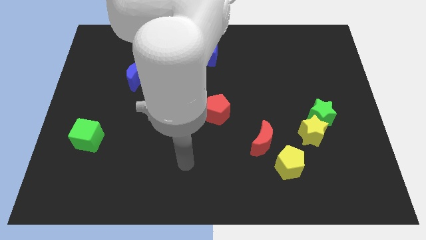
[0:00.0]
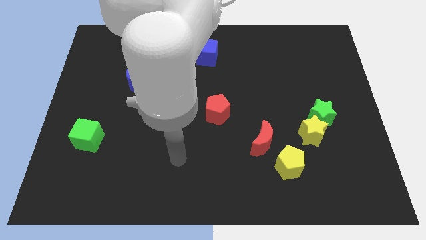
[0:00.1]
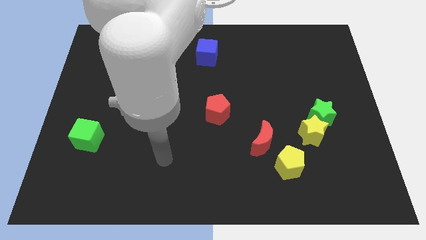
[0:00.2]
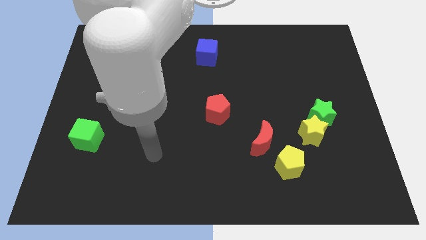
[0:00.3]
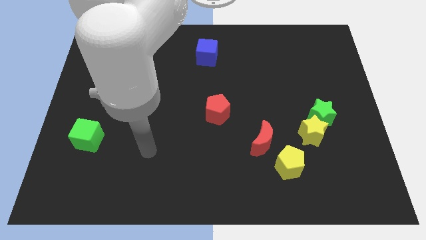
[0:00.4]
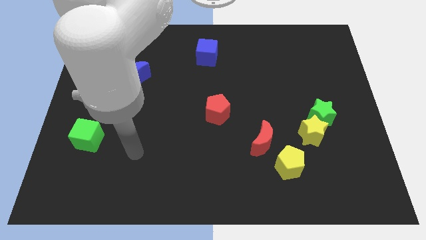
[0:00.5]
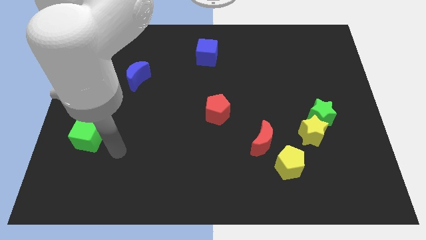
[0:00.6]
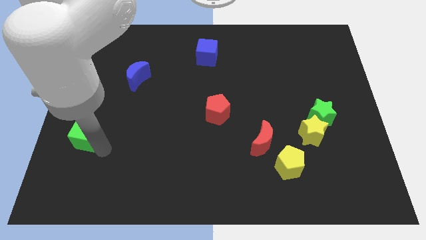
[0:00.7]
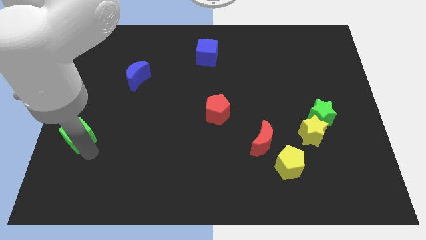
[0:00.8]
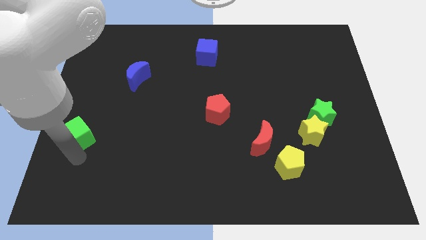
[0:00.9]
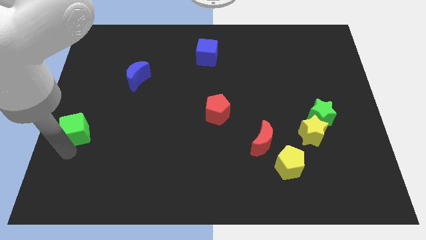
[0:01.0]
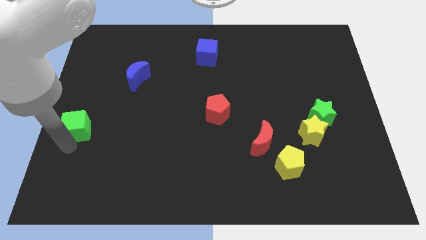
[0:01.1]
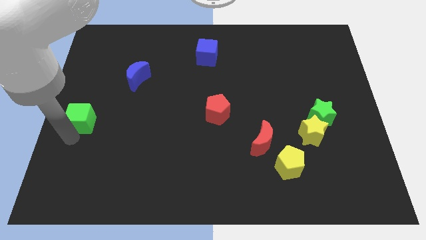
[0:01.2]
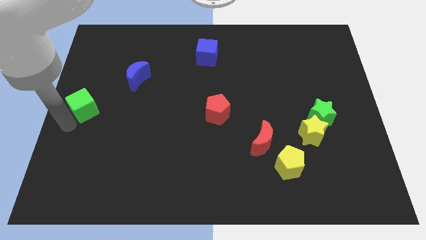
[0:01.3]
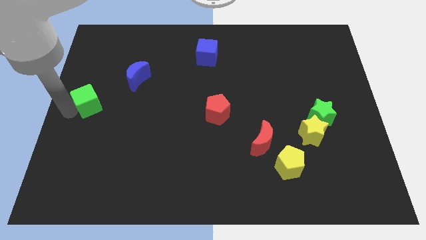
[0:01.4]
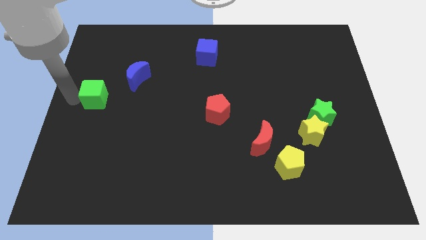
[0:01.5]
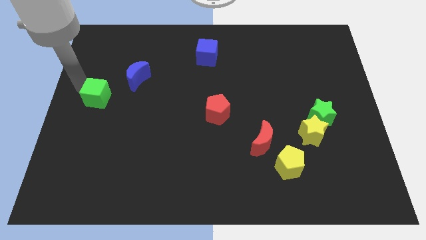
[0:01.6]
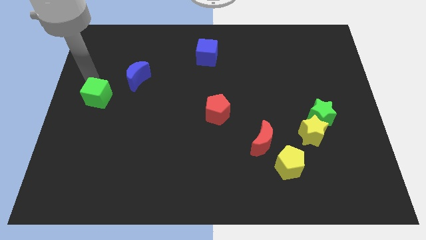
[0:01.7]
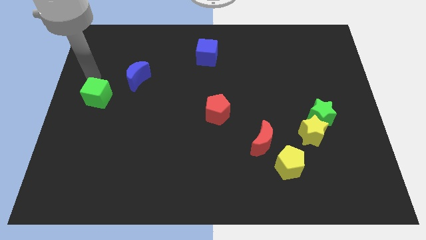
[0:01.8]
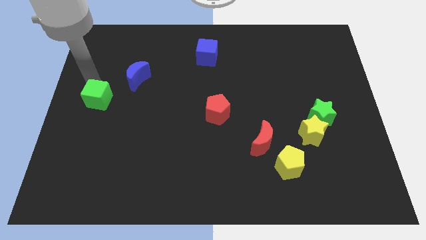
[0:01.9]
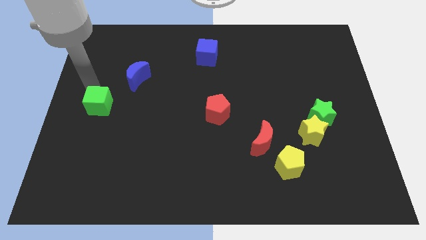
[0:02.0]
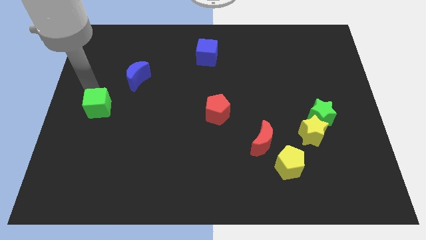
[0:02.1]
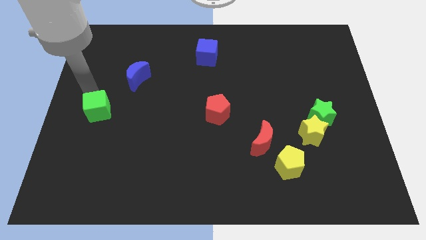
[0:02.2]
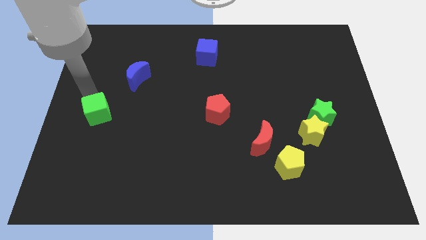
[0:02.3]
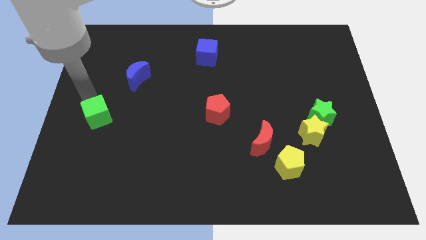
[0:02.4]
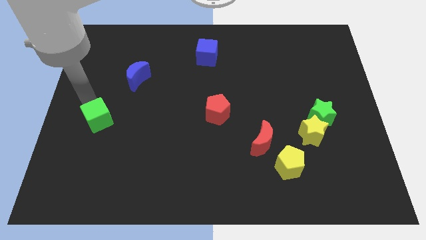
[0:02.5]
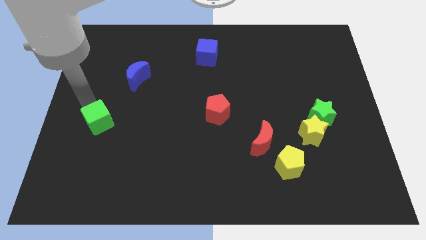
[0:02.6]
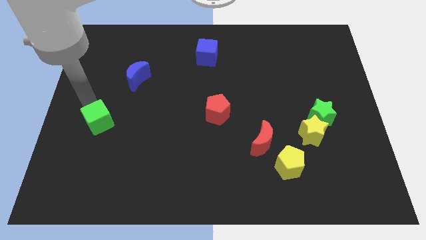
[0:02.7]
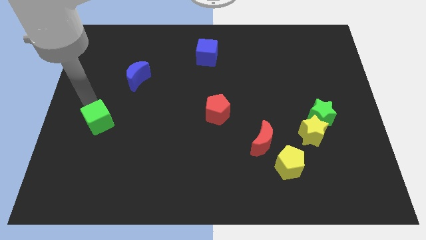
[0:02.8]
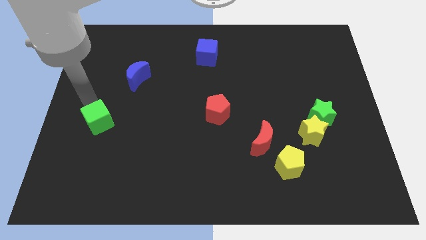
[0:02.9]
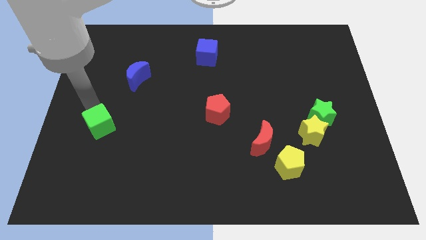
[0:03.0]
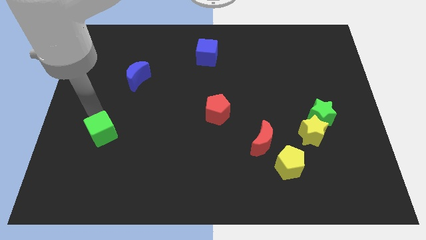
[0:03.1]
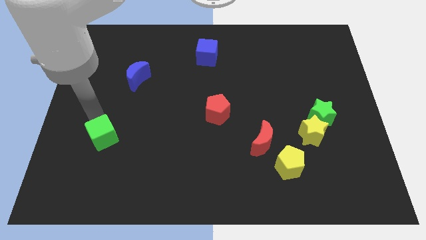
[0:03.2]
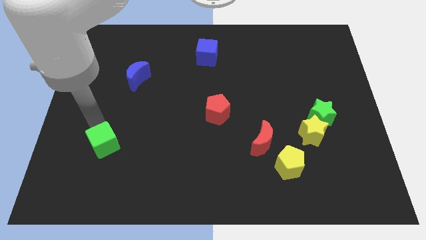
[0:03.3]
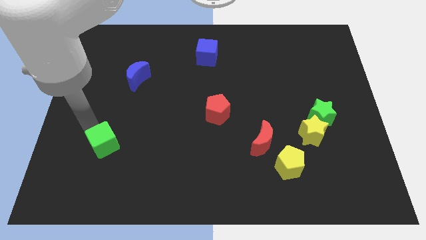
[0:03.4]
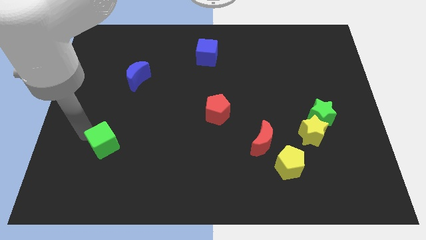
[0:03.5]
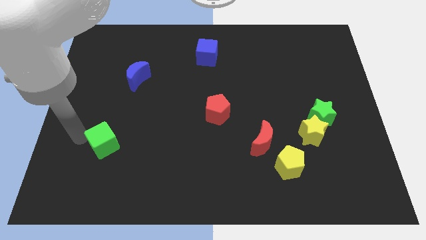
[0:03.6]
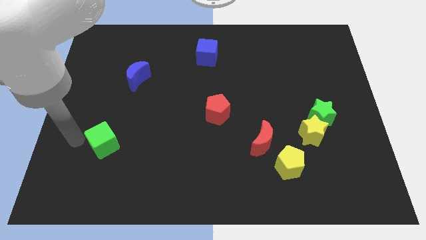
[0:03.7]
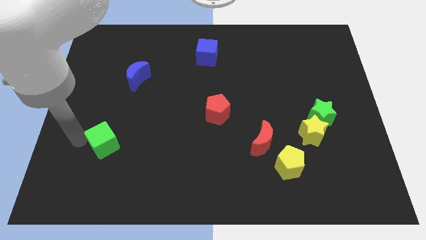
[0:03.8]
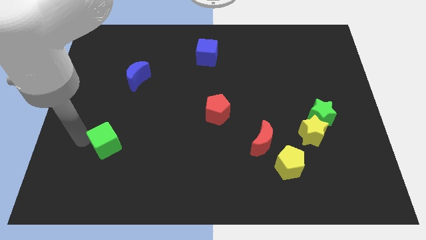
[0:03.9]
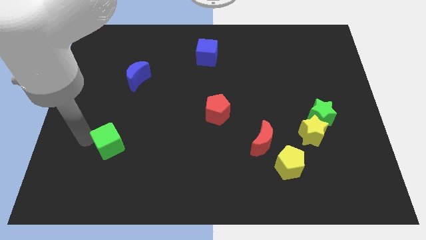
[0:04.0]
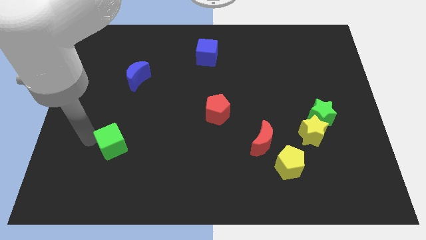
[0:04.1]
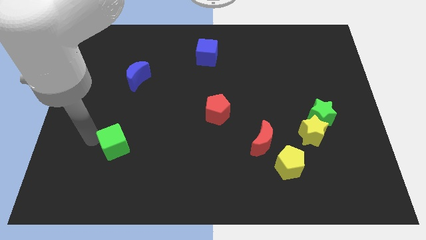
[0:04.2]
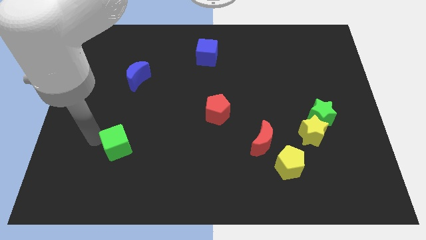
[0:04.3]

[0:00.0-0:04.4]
push the green cube right a little

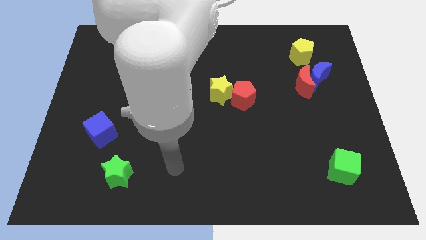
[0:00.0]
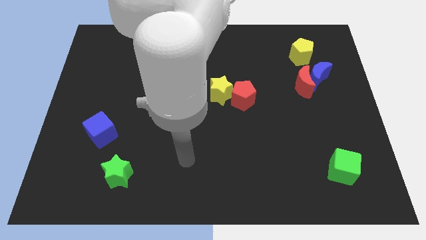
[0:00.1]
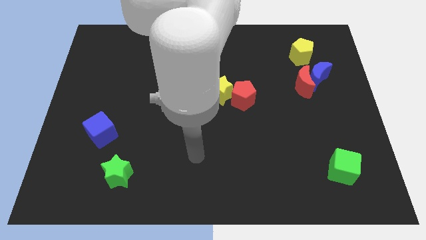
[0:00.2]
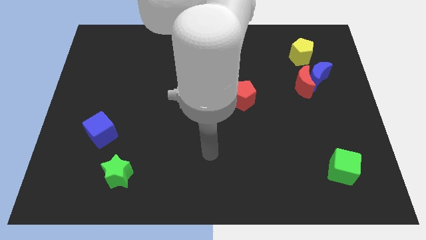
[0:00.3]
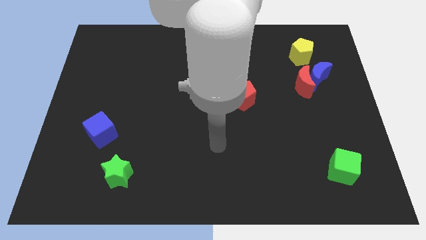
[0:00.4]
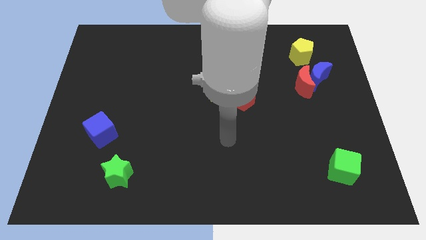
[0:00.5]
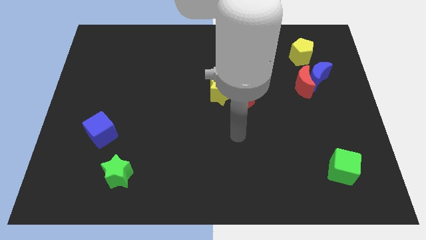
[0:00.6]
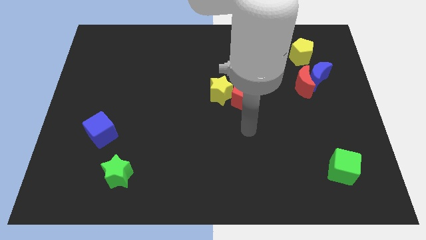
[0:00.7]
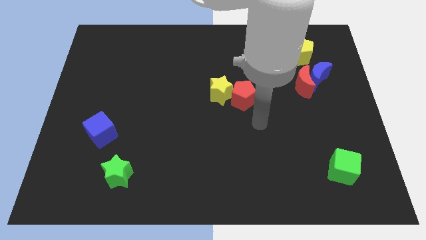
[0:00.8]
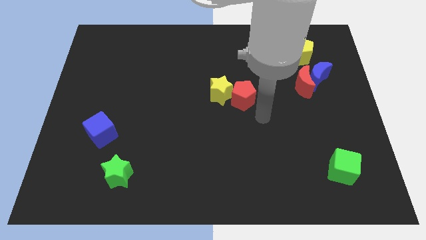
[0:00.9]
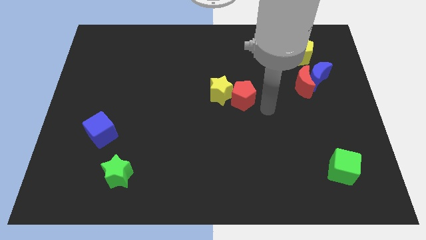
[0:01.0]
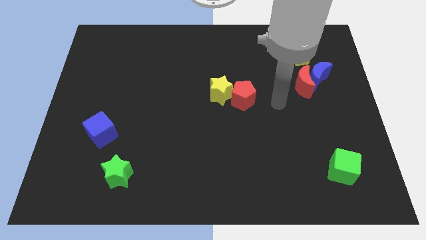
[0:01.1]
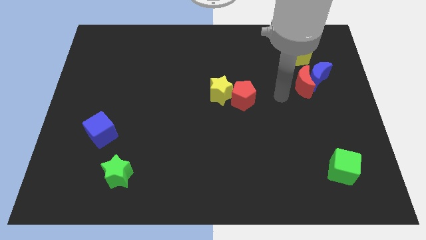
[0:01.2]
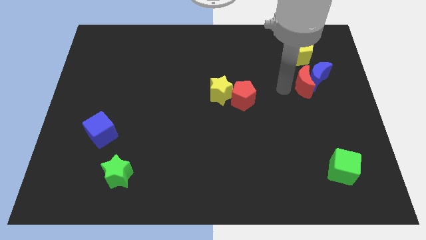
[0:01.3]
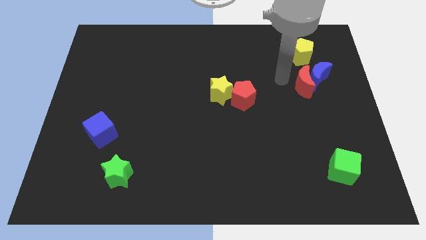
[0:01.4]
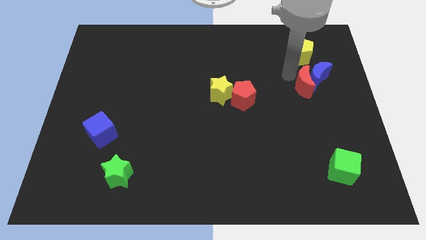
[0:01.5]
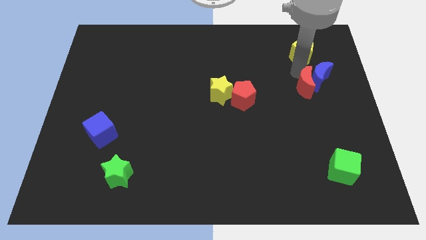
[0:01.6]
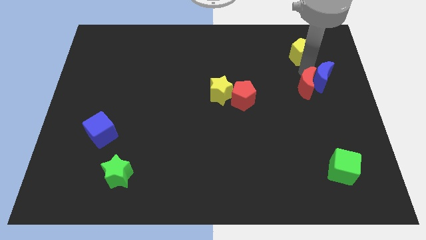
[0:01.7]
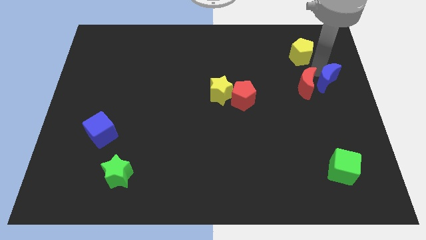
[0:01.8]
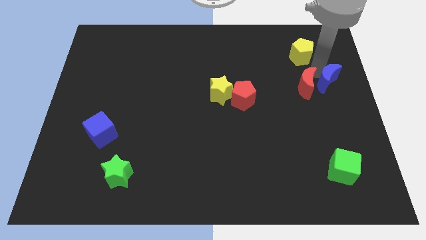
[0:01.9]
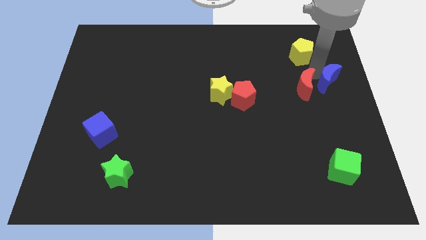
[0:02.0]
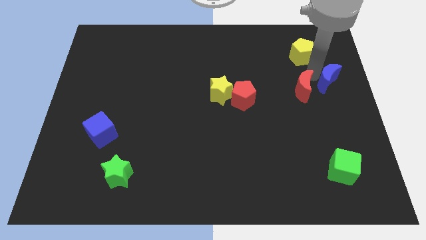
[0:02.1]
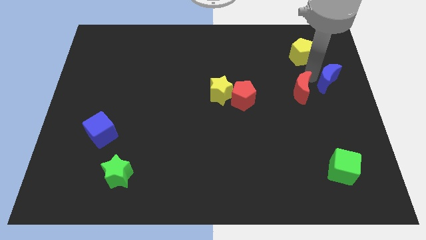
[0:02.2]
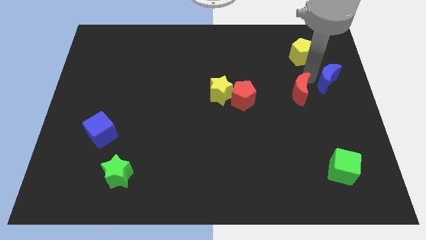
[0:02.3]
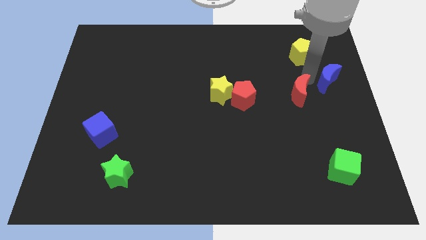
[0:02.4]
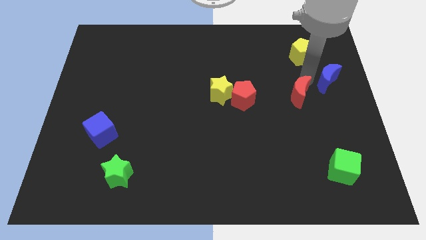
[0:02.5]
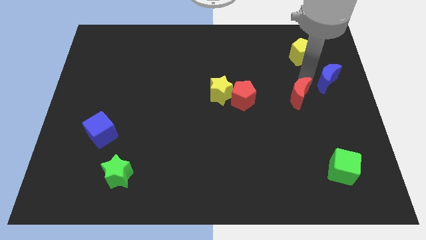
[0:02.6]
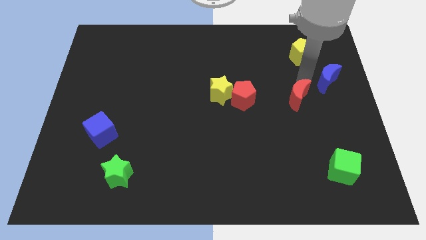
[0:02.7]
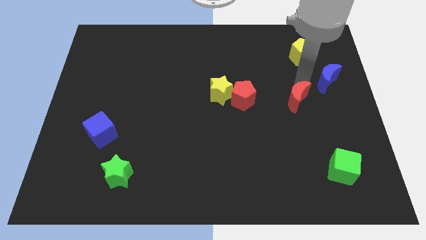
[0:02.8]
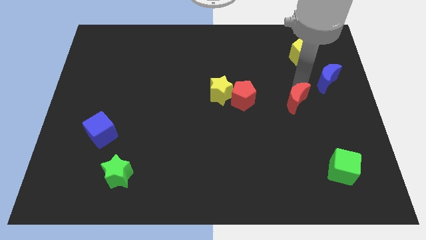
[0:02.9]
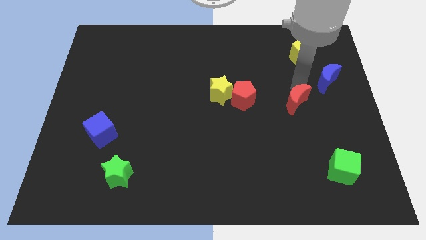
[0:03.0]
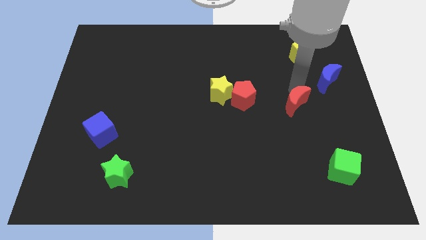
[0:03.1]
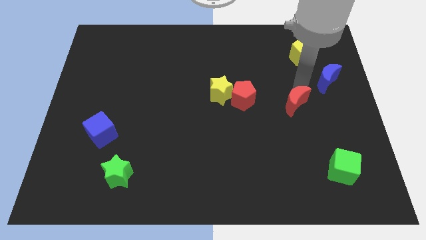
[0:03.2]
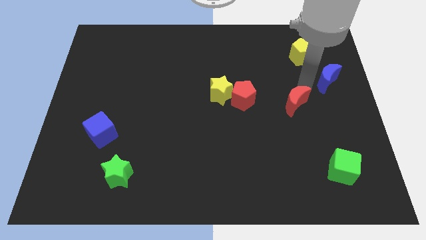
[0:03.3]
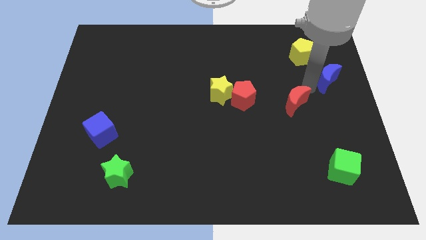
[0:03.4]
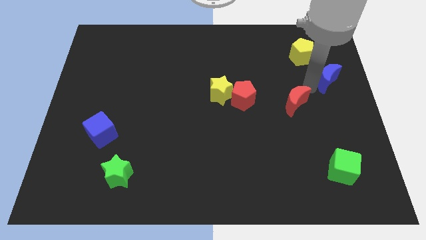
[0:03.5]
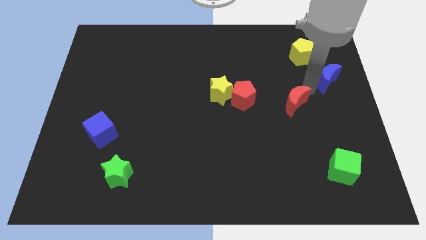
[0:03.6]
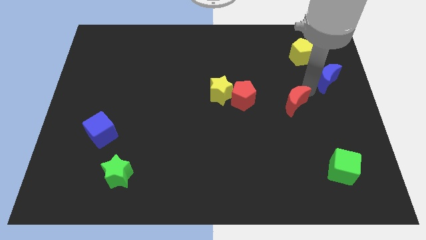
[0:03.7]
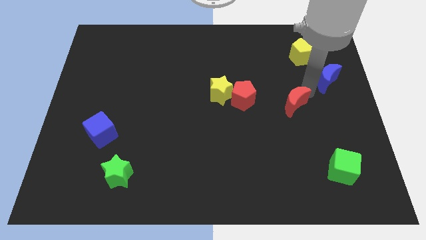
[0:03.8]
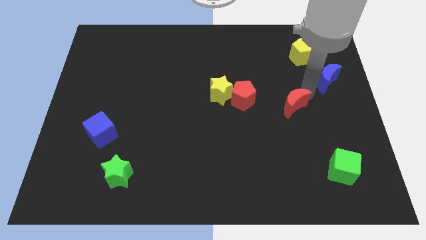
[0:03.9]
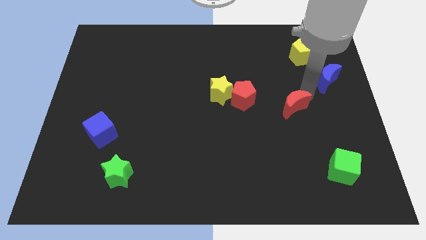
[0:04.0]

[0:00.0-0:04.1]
slightly slide the red moon down and then left
